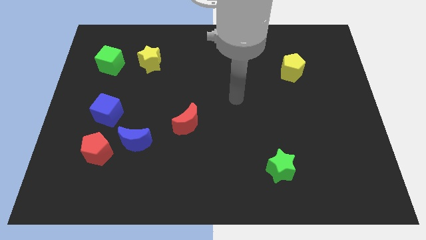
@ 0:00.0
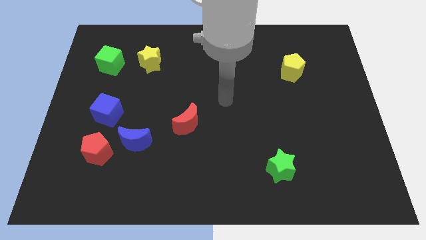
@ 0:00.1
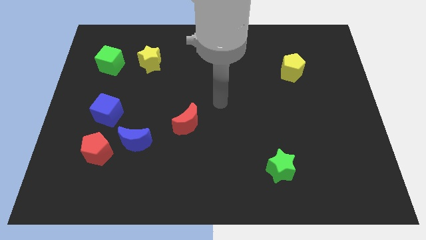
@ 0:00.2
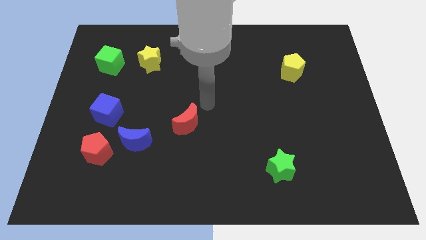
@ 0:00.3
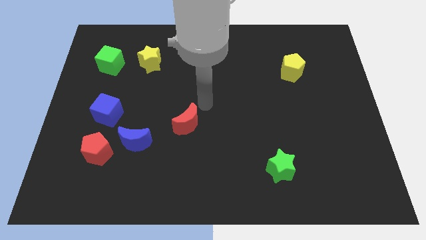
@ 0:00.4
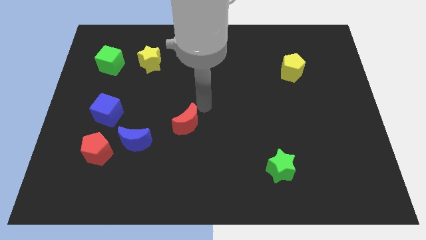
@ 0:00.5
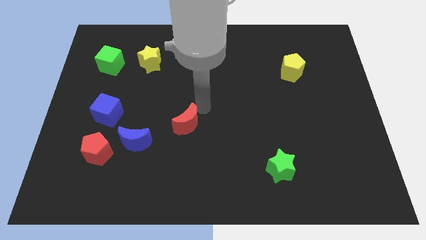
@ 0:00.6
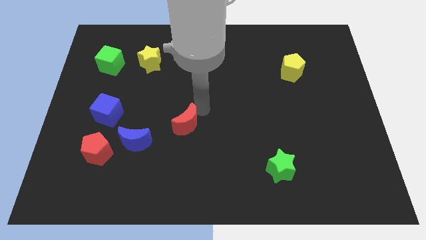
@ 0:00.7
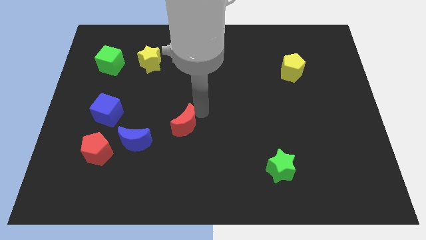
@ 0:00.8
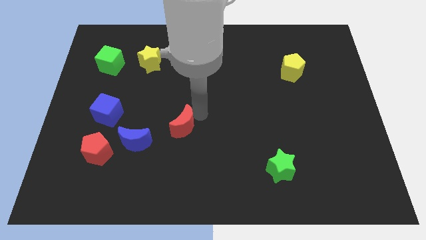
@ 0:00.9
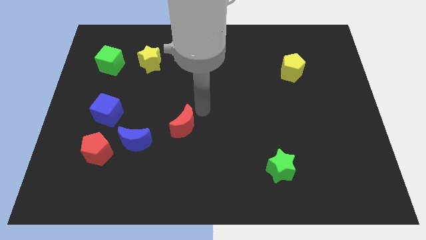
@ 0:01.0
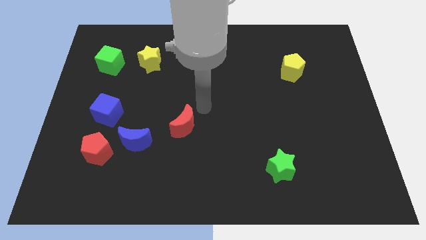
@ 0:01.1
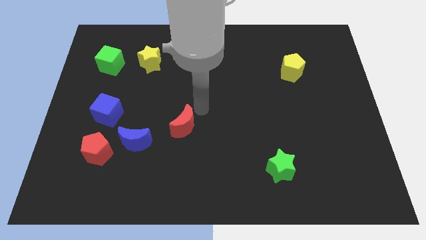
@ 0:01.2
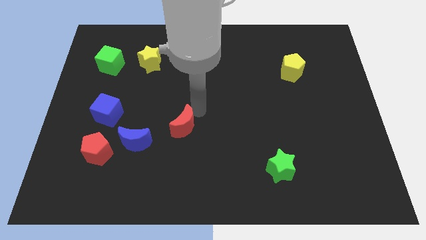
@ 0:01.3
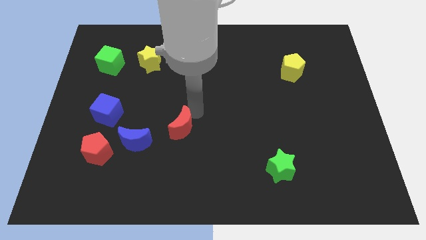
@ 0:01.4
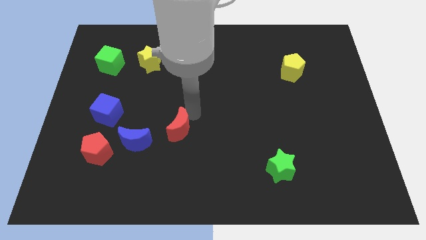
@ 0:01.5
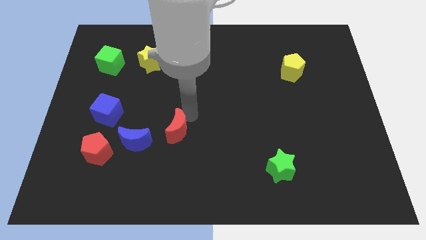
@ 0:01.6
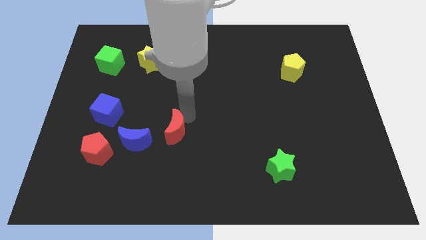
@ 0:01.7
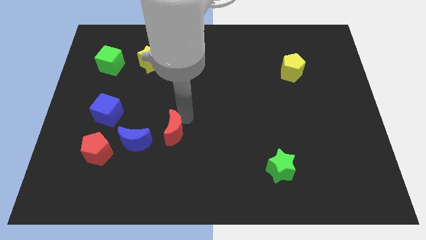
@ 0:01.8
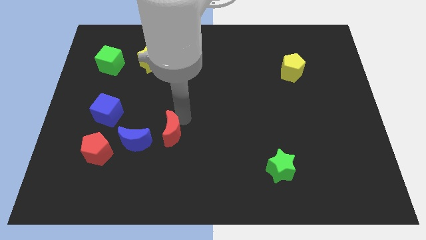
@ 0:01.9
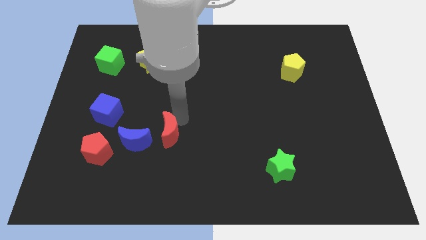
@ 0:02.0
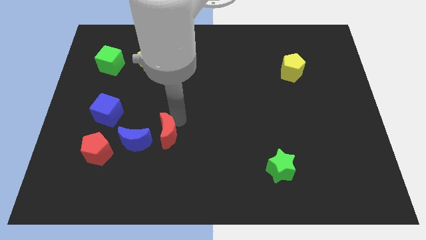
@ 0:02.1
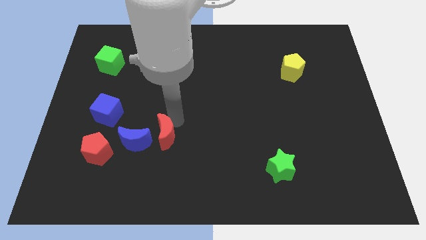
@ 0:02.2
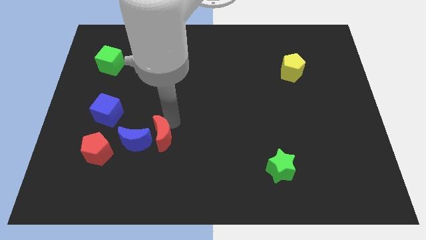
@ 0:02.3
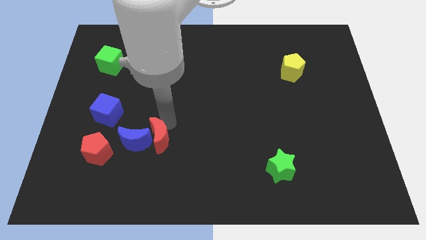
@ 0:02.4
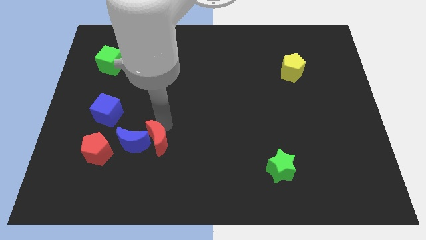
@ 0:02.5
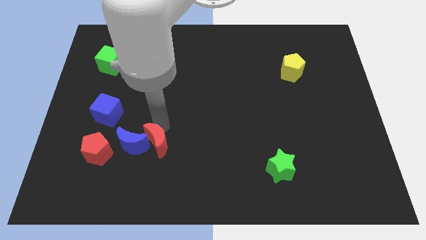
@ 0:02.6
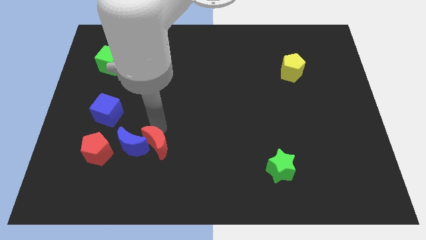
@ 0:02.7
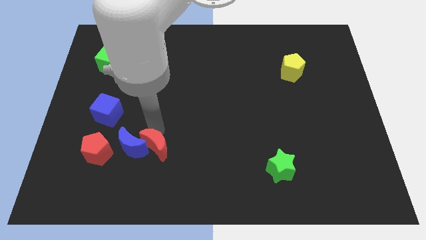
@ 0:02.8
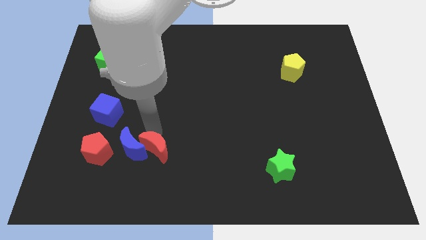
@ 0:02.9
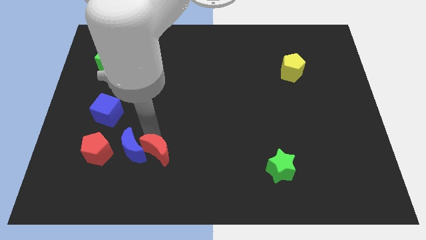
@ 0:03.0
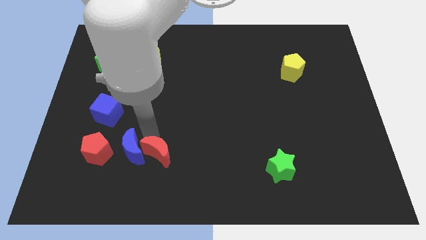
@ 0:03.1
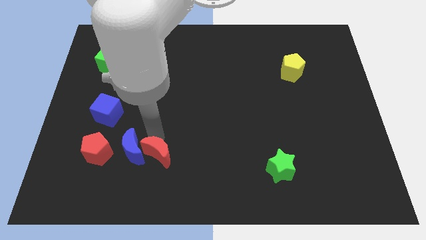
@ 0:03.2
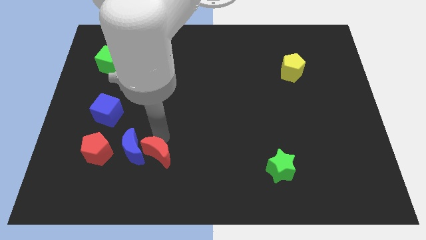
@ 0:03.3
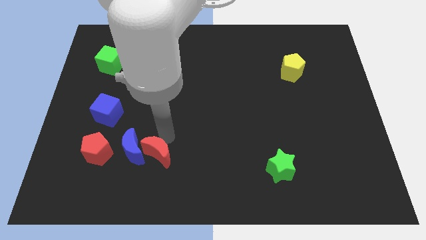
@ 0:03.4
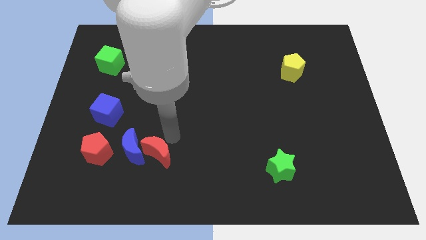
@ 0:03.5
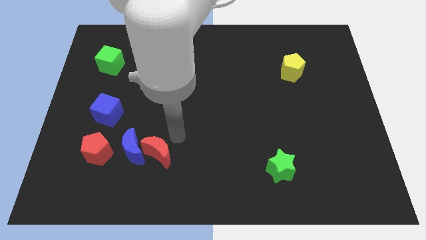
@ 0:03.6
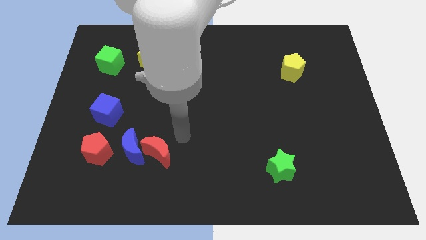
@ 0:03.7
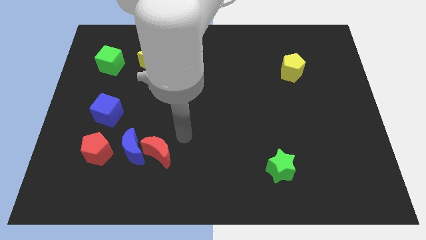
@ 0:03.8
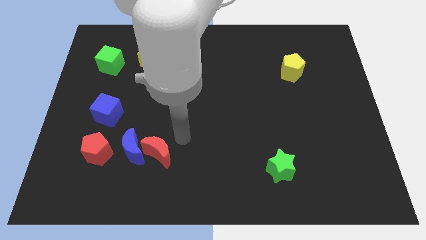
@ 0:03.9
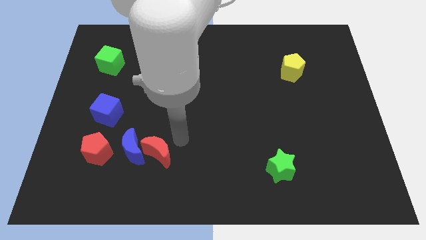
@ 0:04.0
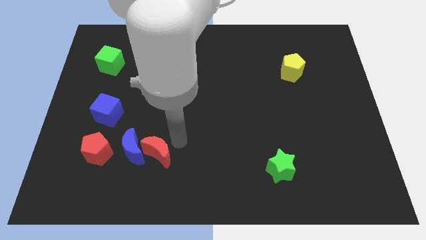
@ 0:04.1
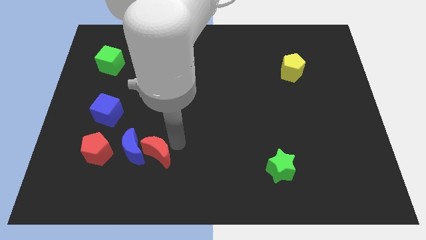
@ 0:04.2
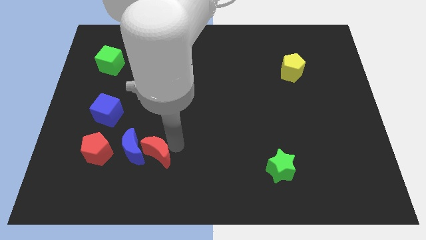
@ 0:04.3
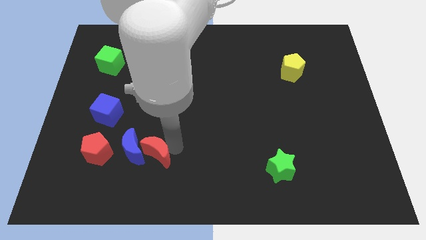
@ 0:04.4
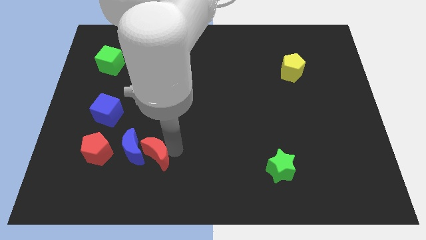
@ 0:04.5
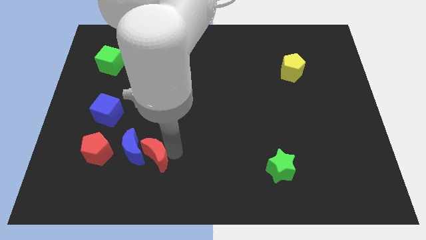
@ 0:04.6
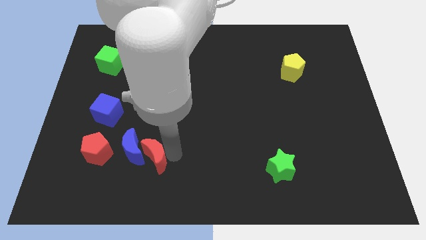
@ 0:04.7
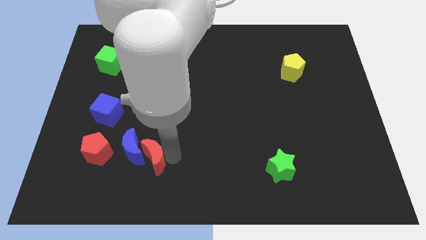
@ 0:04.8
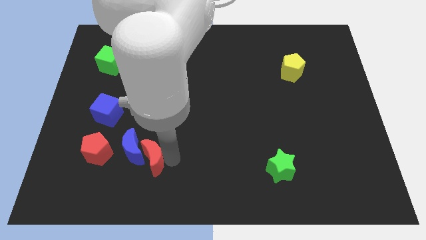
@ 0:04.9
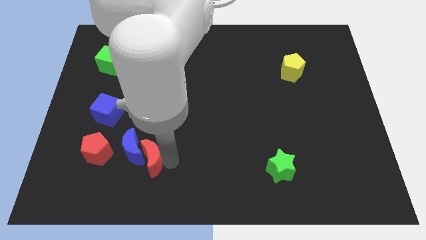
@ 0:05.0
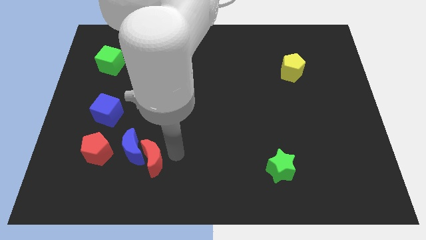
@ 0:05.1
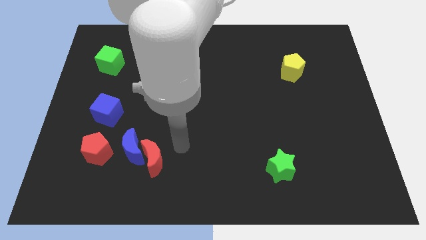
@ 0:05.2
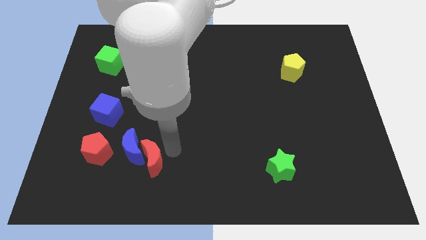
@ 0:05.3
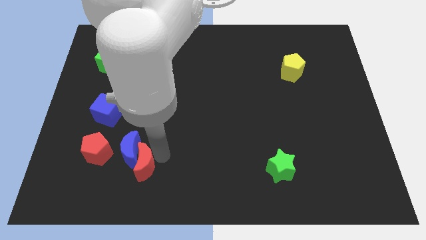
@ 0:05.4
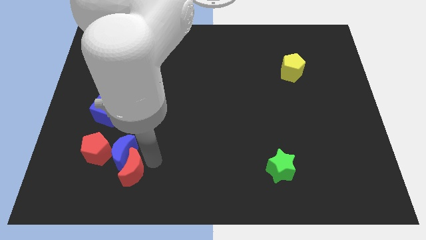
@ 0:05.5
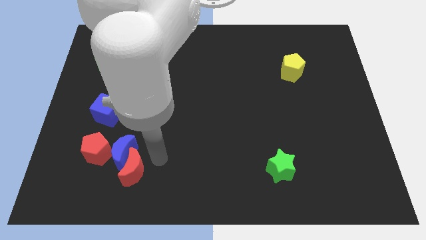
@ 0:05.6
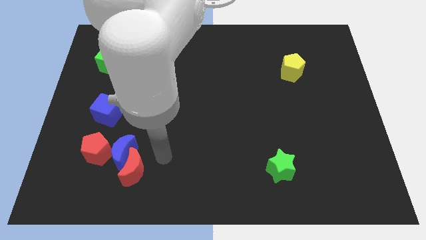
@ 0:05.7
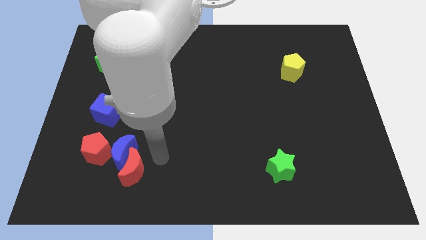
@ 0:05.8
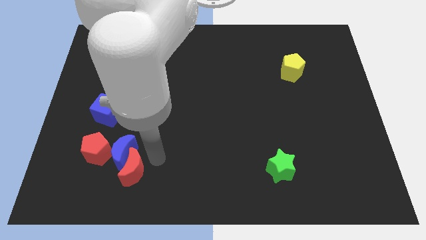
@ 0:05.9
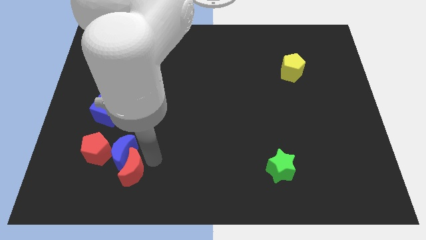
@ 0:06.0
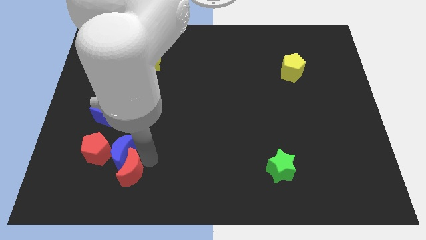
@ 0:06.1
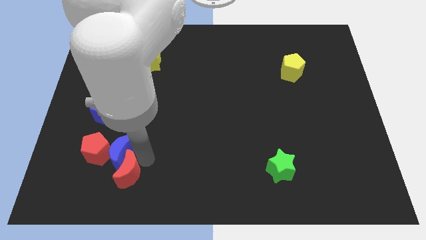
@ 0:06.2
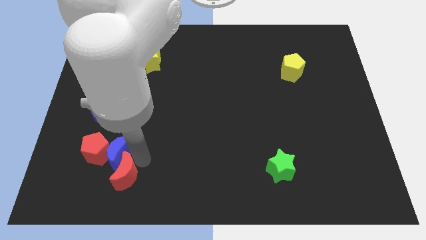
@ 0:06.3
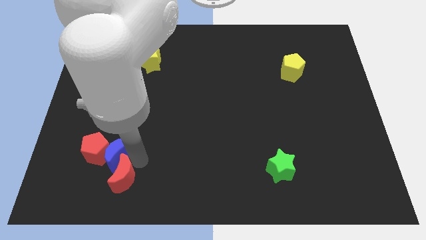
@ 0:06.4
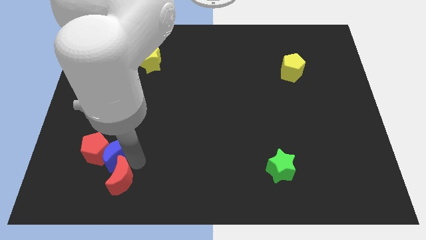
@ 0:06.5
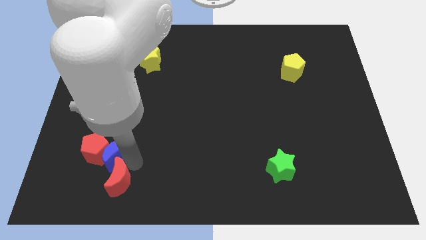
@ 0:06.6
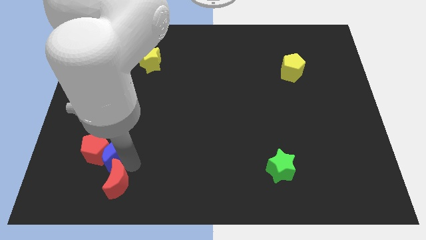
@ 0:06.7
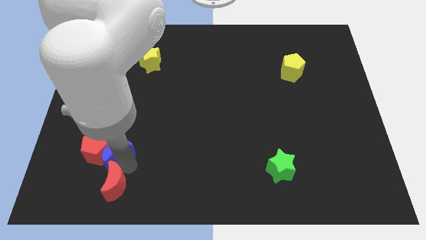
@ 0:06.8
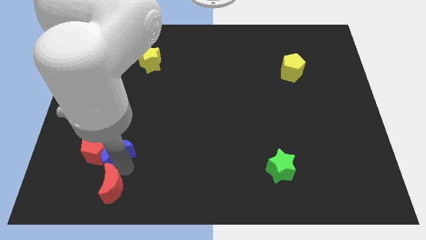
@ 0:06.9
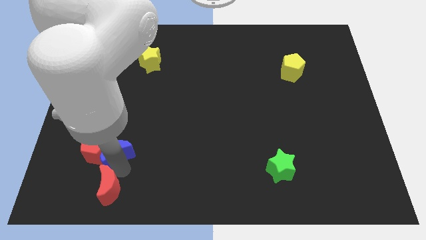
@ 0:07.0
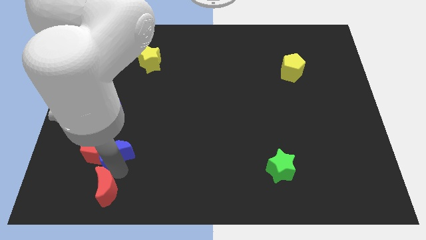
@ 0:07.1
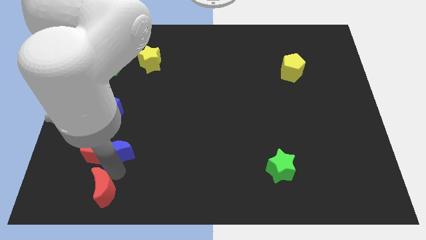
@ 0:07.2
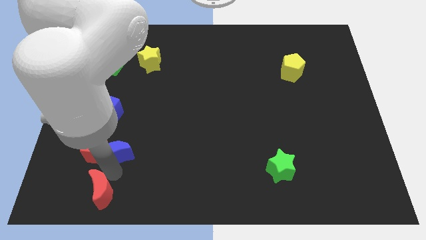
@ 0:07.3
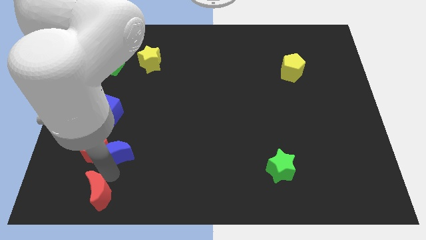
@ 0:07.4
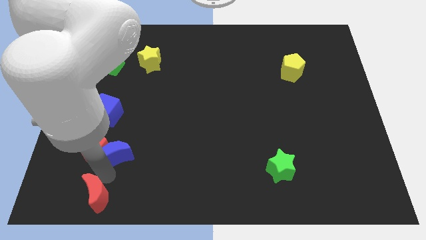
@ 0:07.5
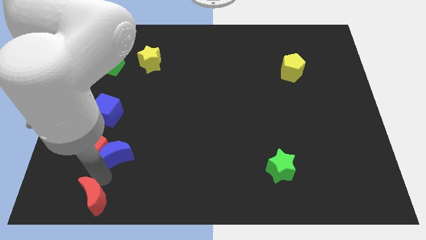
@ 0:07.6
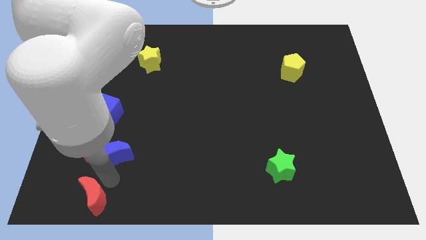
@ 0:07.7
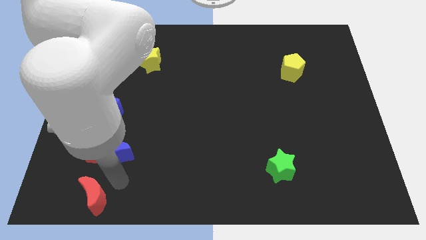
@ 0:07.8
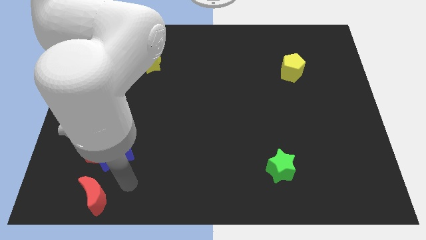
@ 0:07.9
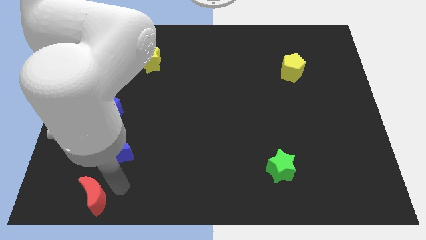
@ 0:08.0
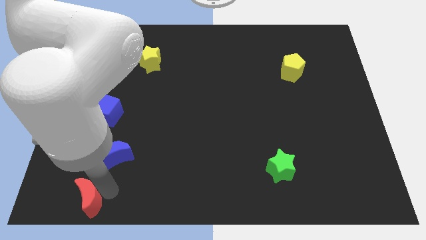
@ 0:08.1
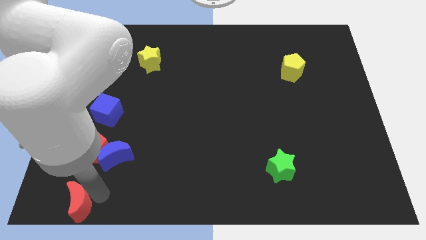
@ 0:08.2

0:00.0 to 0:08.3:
slide the red moon to the bottom left of the board
